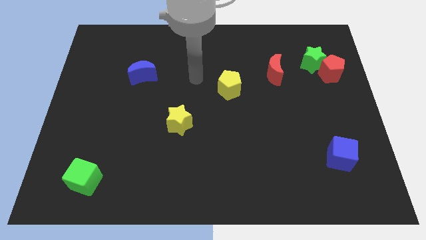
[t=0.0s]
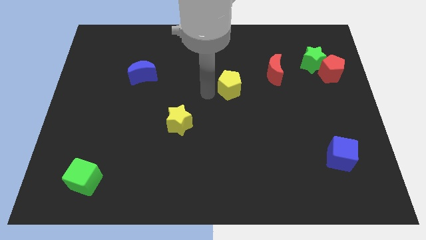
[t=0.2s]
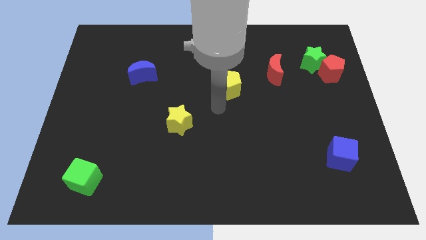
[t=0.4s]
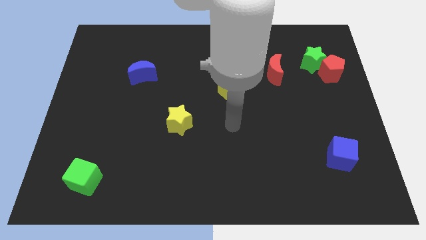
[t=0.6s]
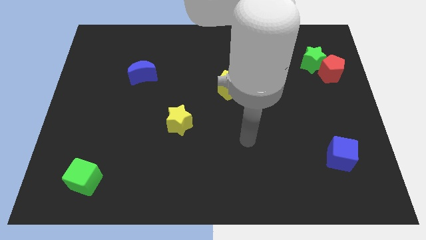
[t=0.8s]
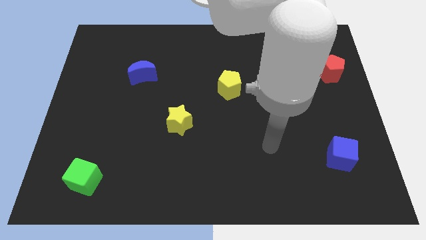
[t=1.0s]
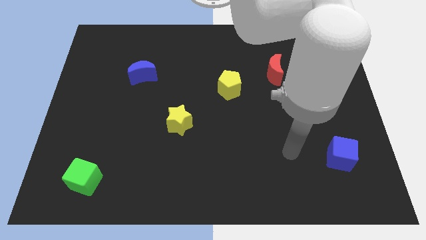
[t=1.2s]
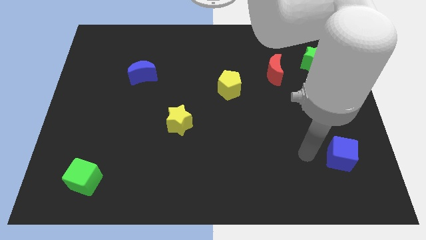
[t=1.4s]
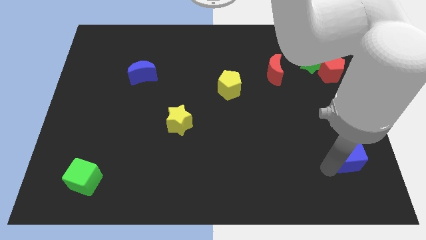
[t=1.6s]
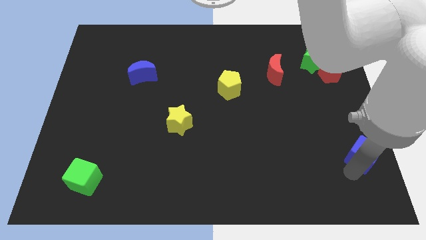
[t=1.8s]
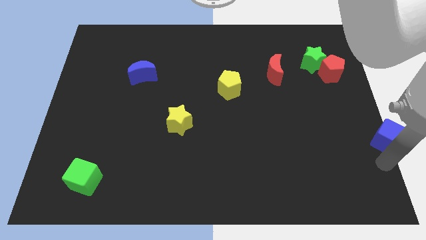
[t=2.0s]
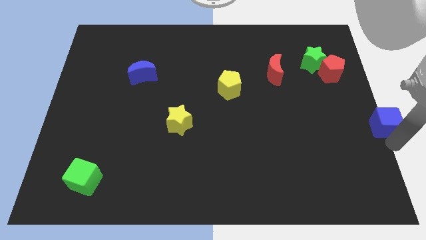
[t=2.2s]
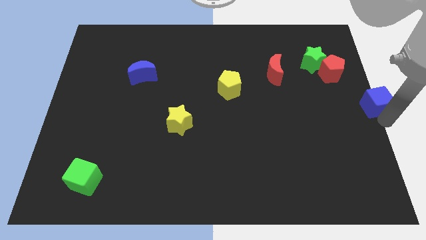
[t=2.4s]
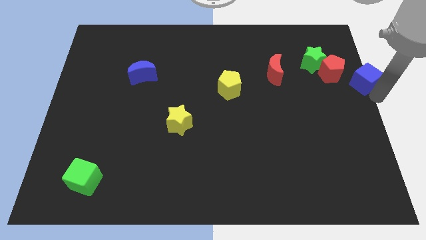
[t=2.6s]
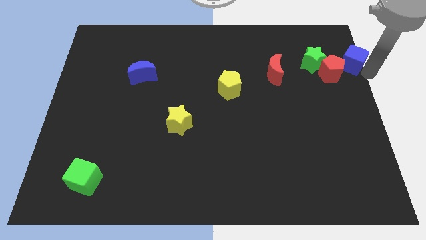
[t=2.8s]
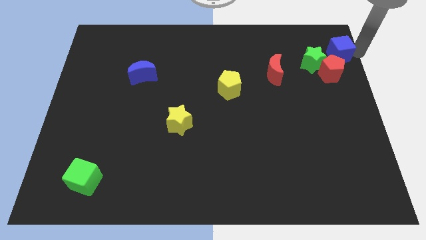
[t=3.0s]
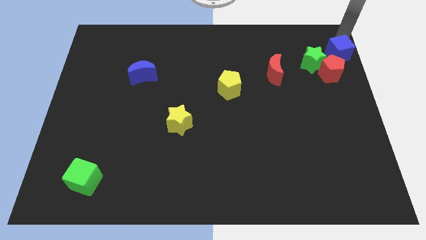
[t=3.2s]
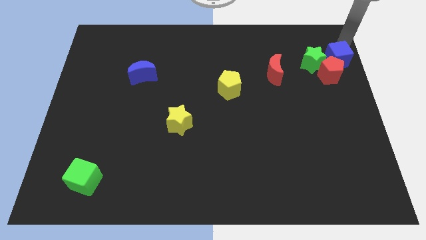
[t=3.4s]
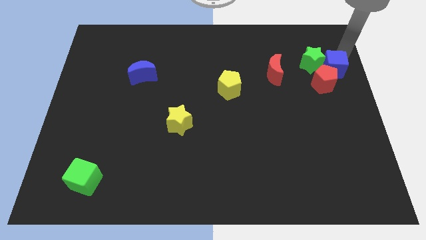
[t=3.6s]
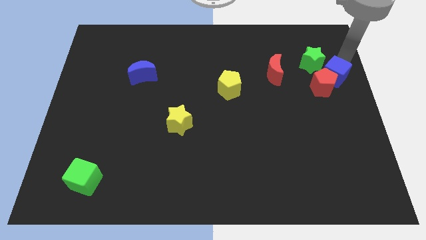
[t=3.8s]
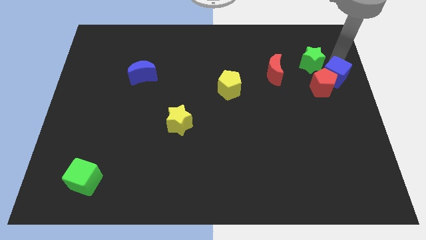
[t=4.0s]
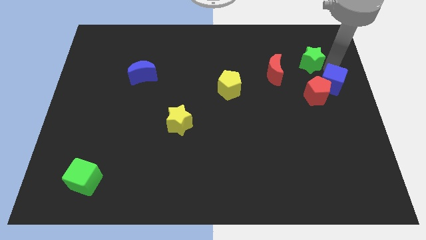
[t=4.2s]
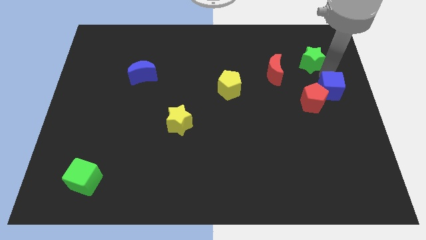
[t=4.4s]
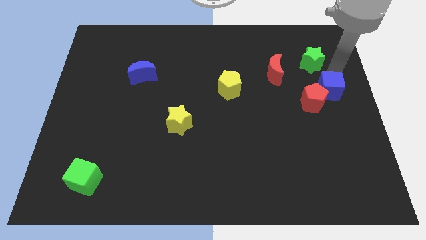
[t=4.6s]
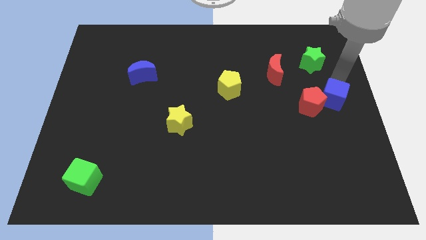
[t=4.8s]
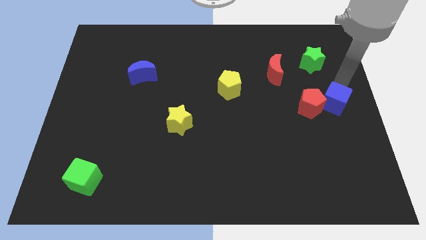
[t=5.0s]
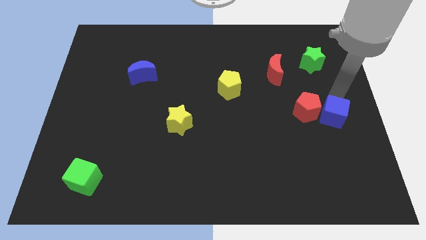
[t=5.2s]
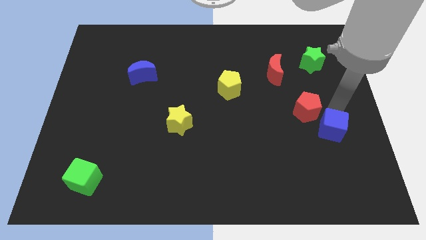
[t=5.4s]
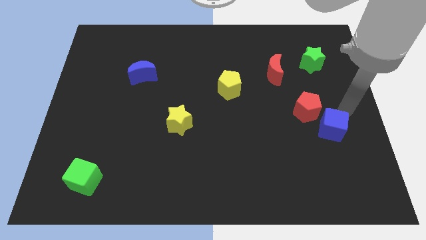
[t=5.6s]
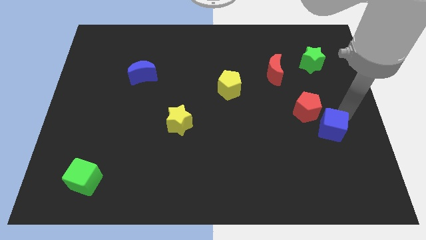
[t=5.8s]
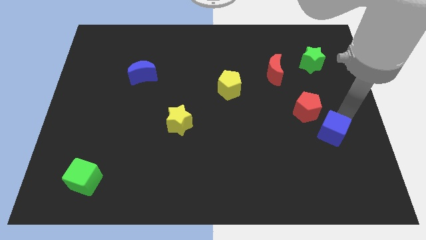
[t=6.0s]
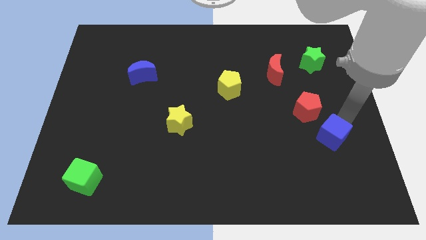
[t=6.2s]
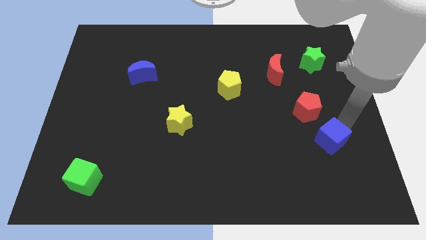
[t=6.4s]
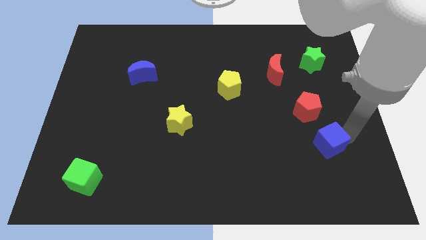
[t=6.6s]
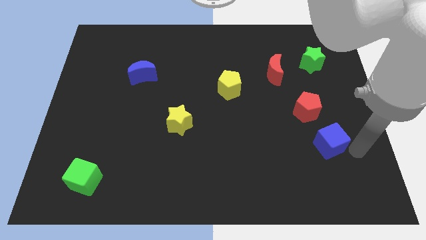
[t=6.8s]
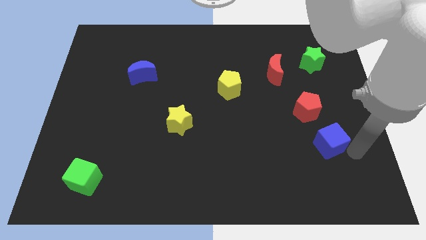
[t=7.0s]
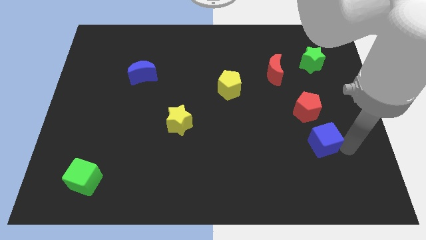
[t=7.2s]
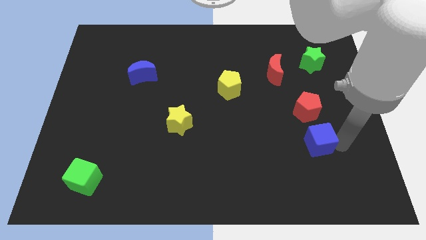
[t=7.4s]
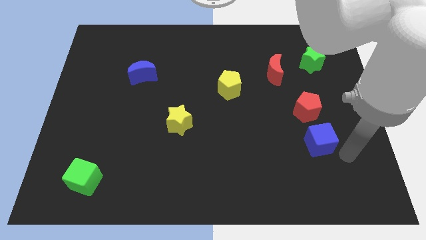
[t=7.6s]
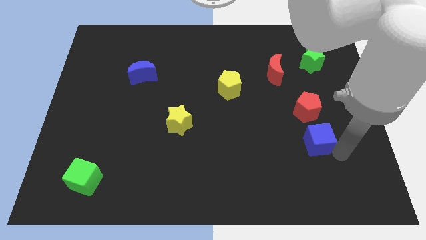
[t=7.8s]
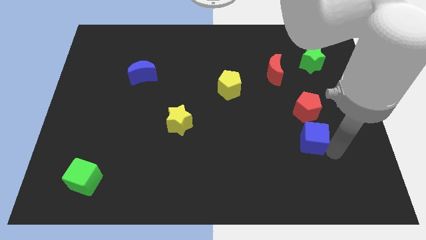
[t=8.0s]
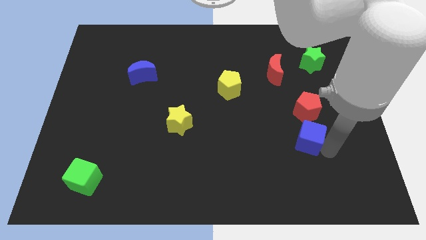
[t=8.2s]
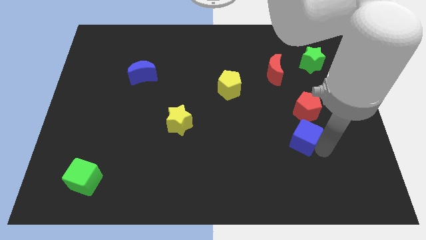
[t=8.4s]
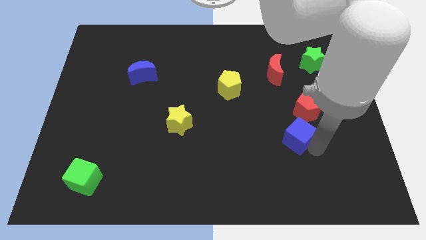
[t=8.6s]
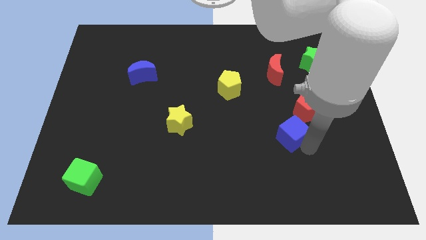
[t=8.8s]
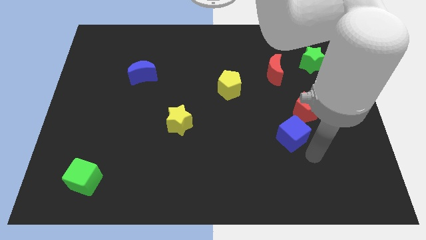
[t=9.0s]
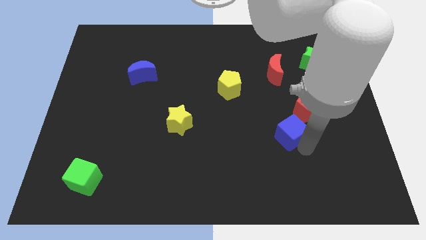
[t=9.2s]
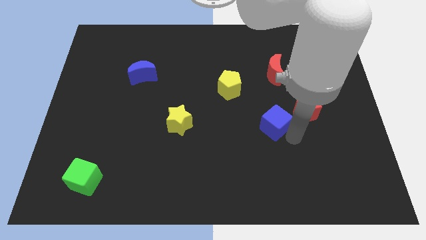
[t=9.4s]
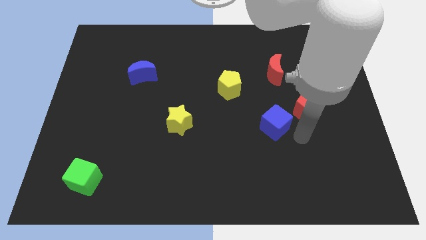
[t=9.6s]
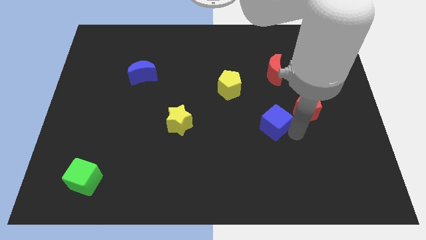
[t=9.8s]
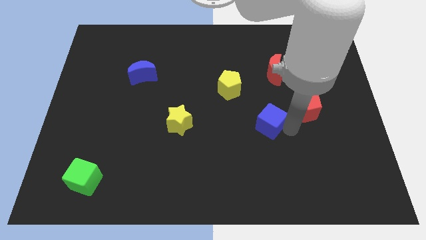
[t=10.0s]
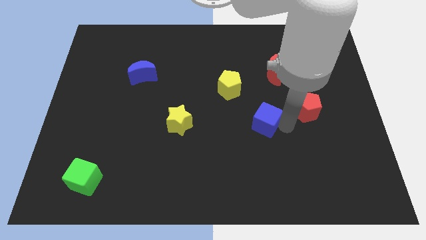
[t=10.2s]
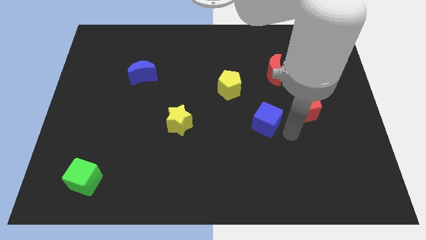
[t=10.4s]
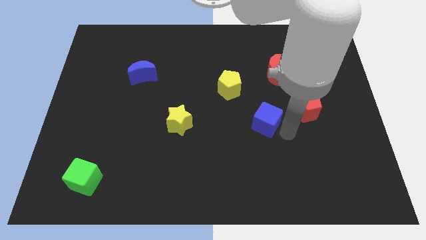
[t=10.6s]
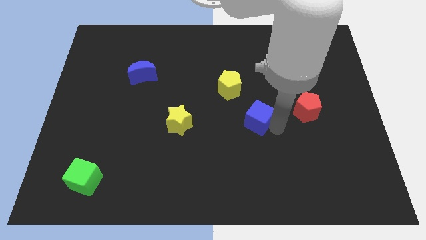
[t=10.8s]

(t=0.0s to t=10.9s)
put the blue cube to the middle

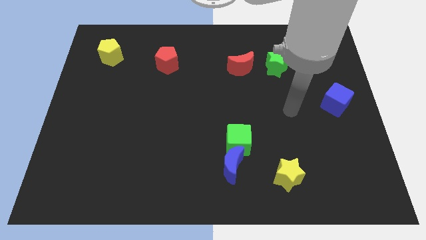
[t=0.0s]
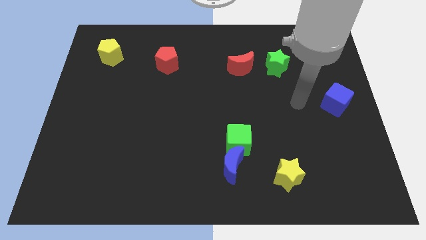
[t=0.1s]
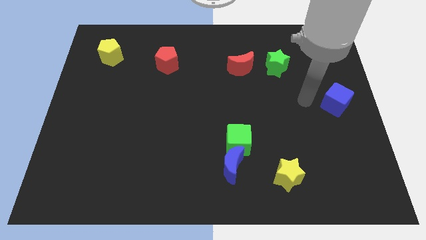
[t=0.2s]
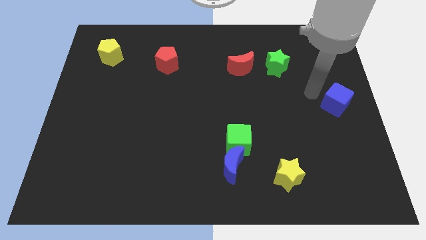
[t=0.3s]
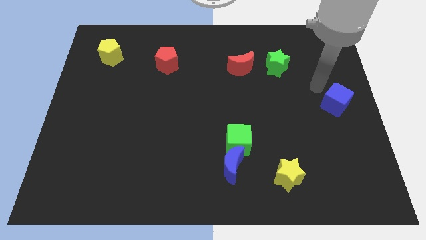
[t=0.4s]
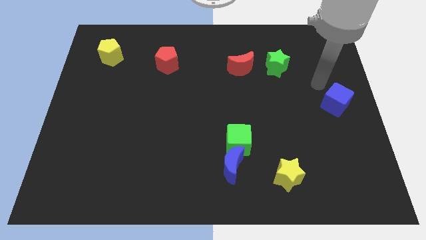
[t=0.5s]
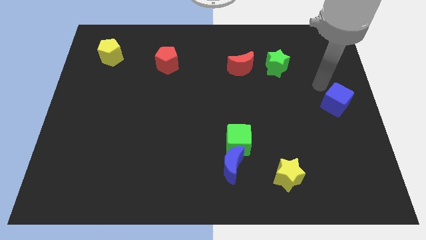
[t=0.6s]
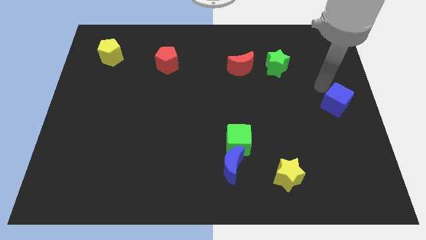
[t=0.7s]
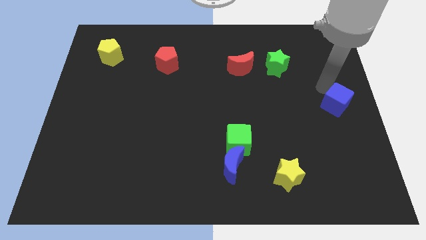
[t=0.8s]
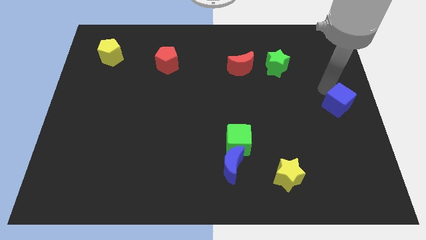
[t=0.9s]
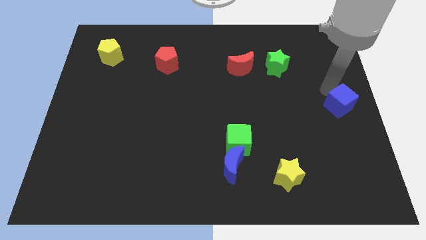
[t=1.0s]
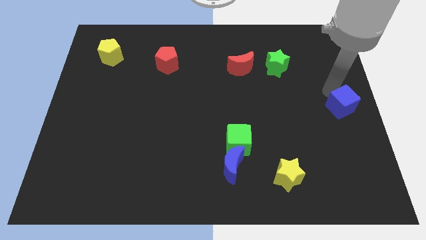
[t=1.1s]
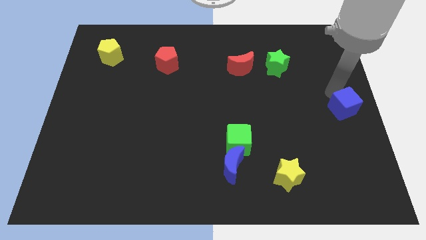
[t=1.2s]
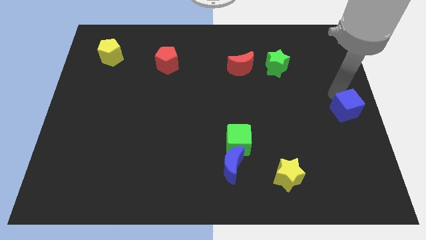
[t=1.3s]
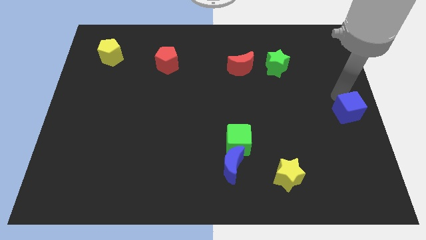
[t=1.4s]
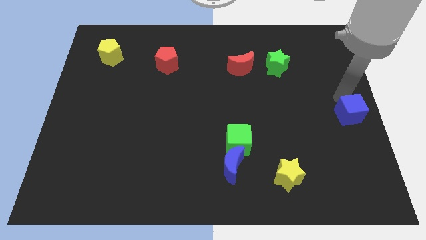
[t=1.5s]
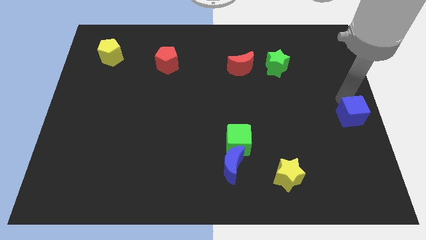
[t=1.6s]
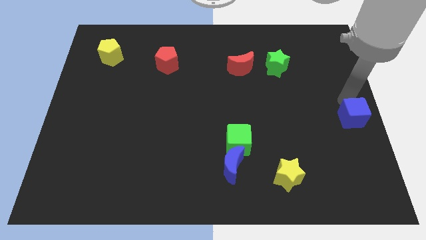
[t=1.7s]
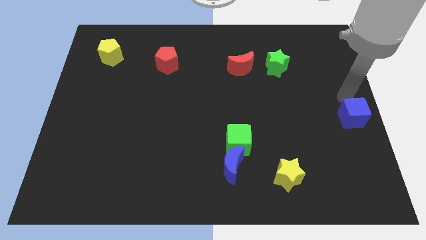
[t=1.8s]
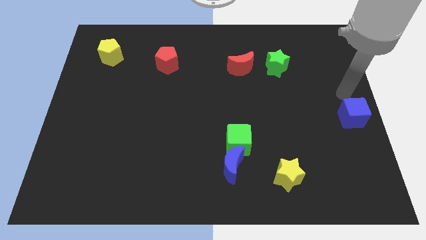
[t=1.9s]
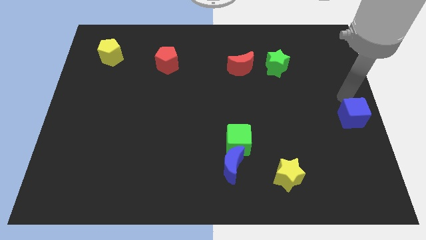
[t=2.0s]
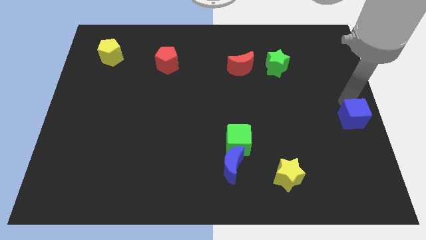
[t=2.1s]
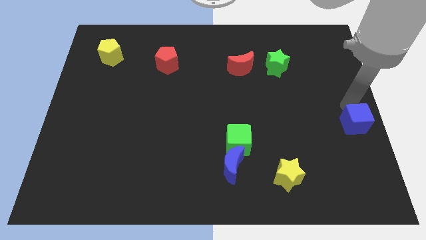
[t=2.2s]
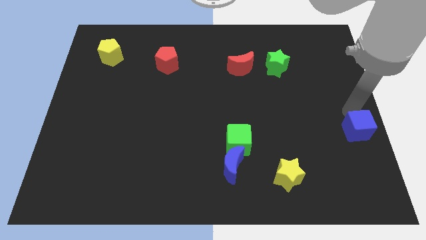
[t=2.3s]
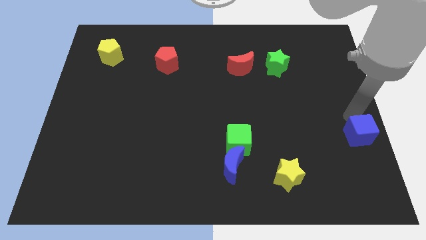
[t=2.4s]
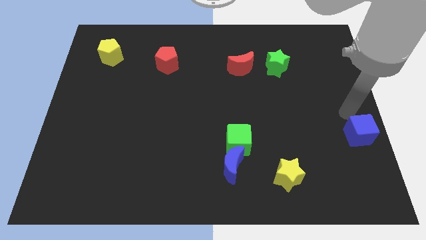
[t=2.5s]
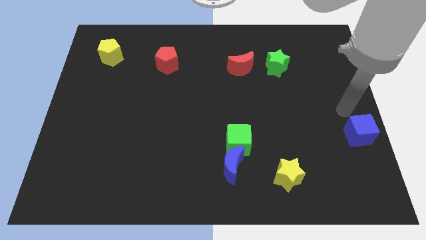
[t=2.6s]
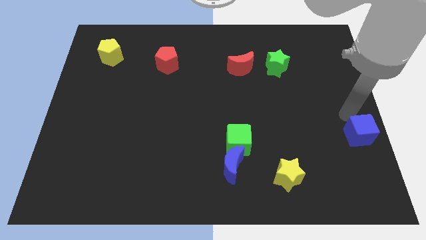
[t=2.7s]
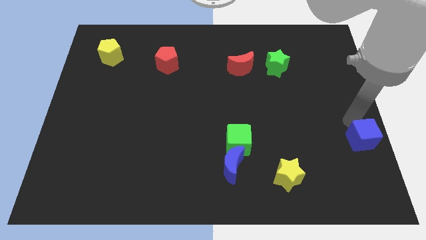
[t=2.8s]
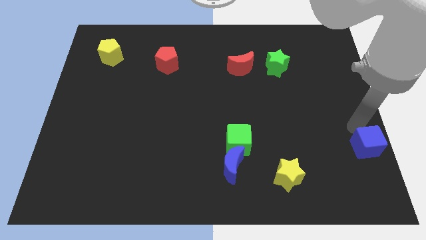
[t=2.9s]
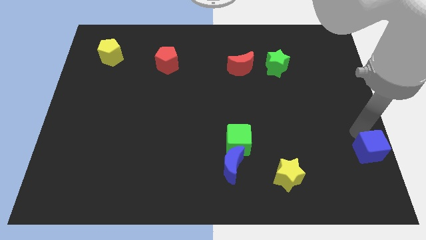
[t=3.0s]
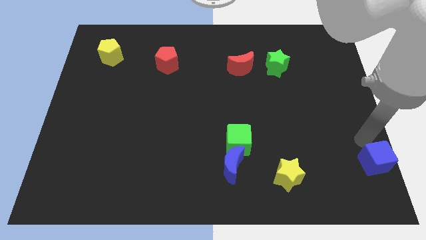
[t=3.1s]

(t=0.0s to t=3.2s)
move the blue cube to the bottom right corner
